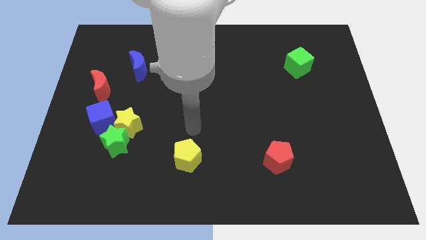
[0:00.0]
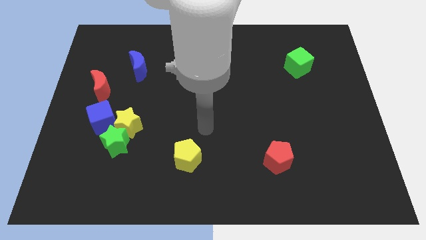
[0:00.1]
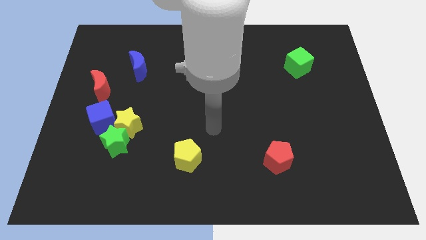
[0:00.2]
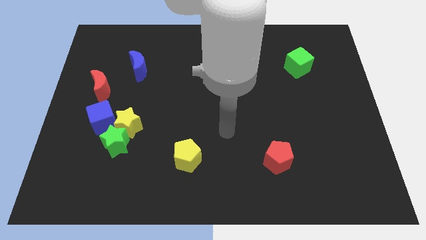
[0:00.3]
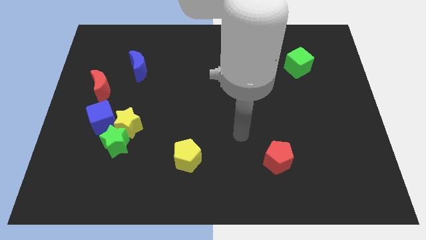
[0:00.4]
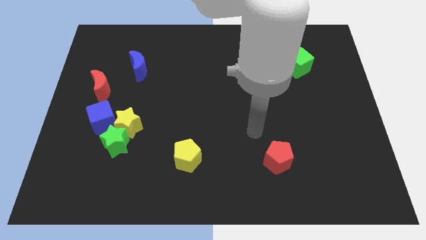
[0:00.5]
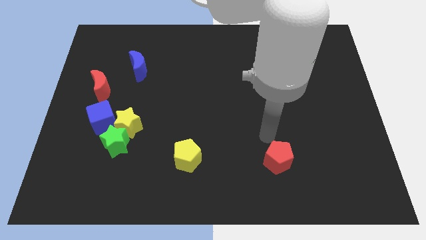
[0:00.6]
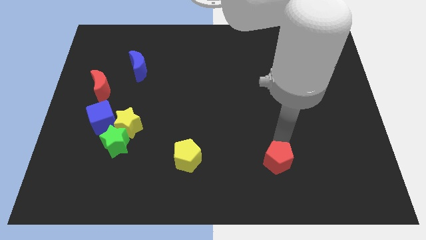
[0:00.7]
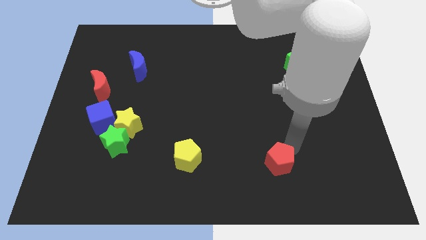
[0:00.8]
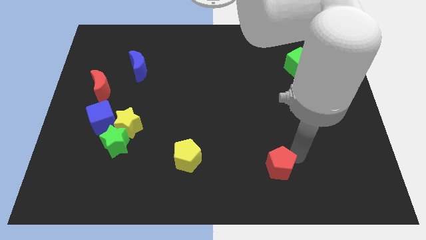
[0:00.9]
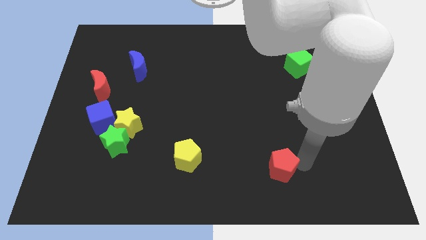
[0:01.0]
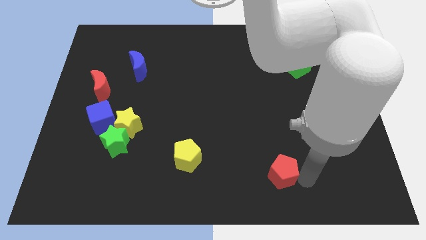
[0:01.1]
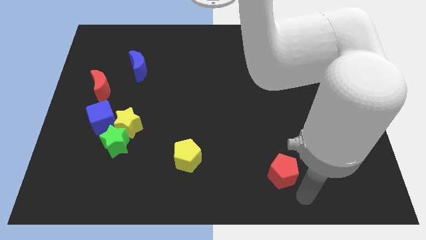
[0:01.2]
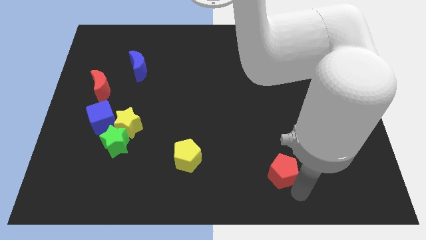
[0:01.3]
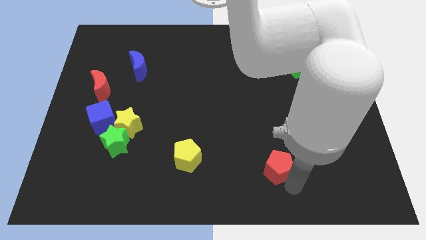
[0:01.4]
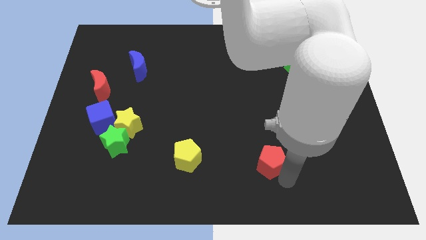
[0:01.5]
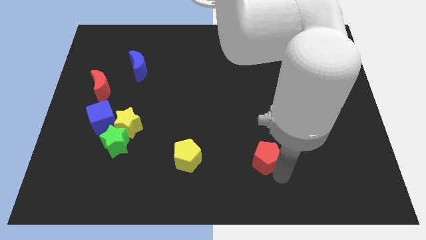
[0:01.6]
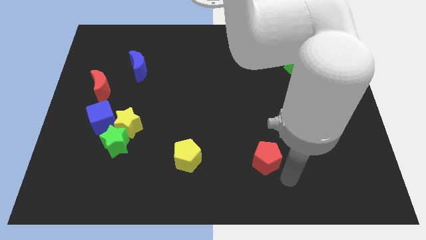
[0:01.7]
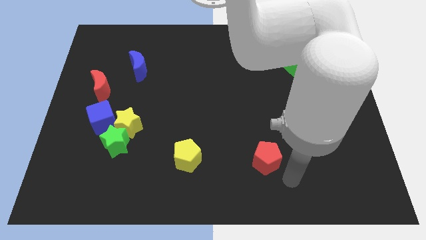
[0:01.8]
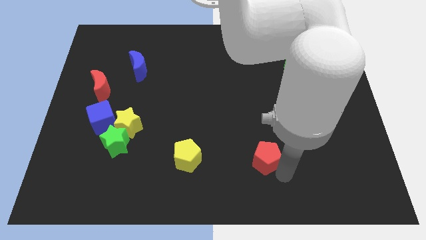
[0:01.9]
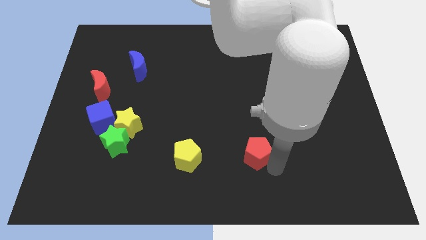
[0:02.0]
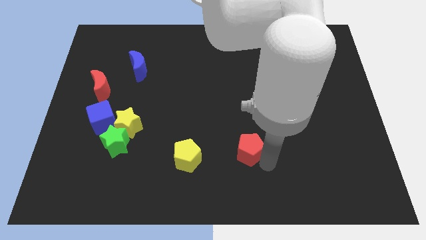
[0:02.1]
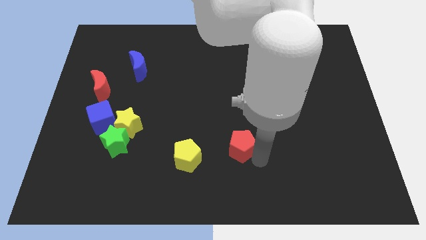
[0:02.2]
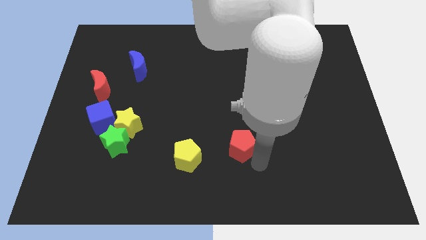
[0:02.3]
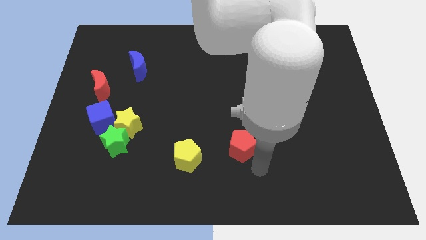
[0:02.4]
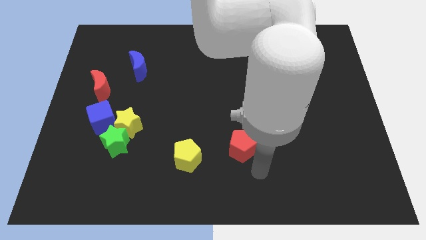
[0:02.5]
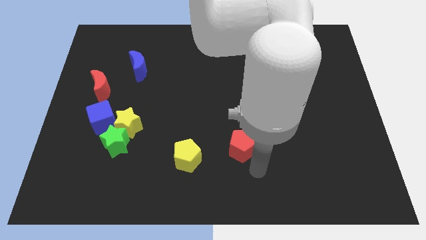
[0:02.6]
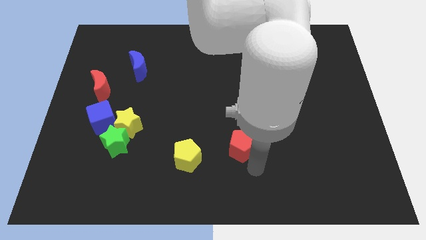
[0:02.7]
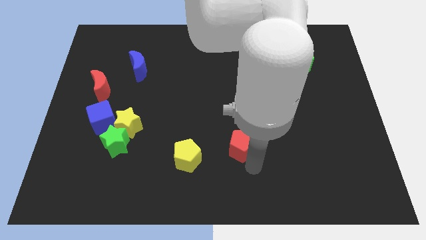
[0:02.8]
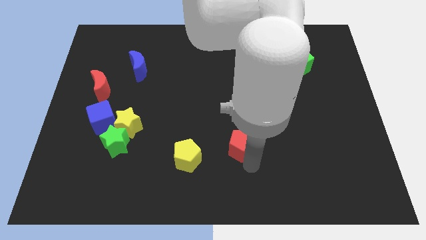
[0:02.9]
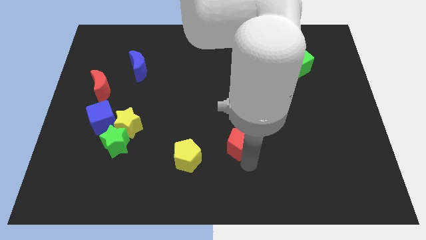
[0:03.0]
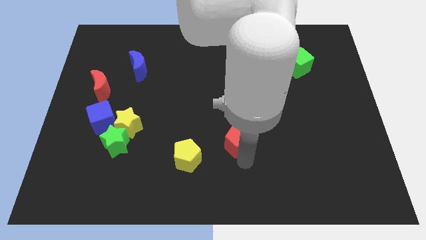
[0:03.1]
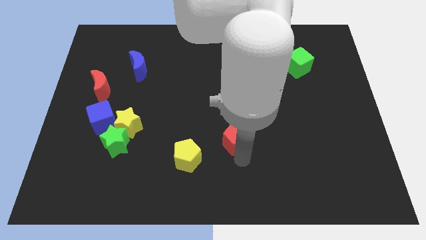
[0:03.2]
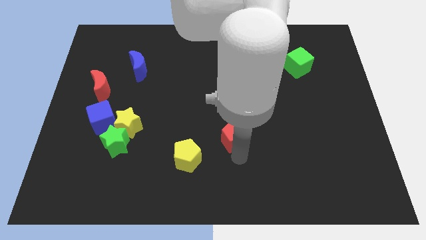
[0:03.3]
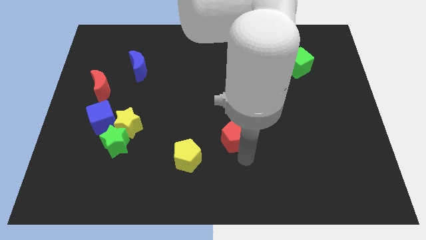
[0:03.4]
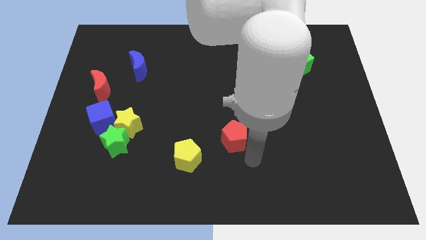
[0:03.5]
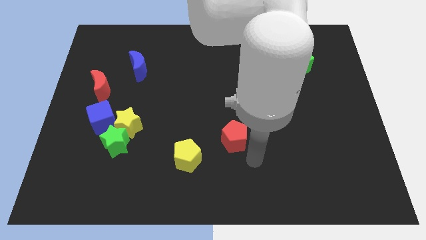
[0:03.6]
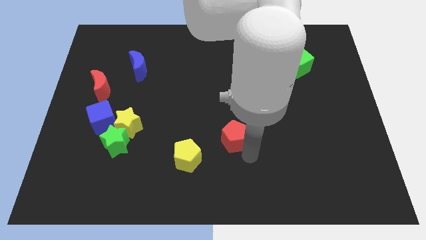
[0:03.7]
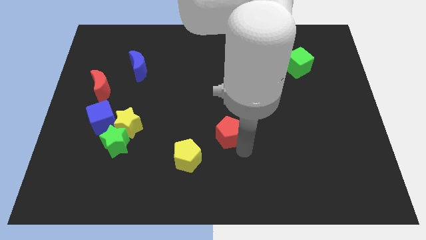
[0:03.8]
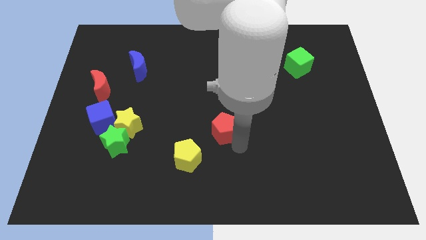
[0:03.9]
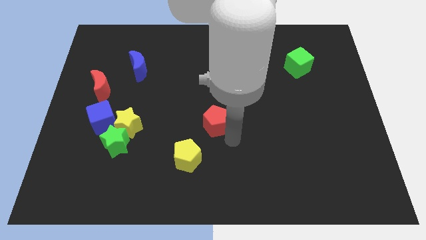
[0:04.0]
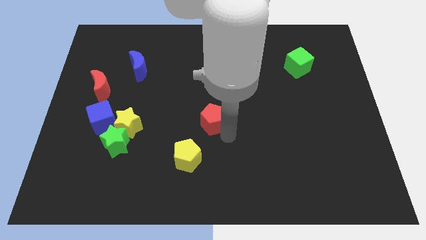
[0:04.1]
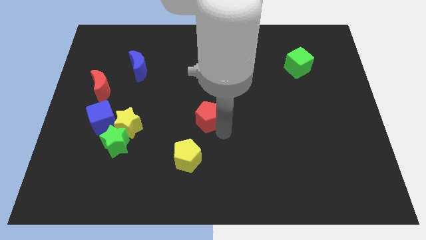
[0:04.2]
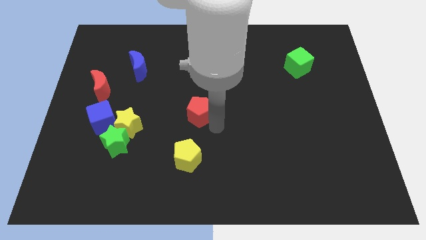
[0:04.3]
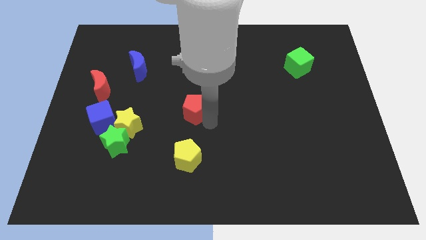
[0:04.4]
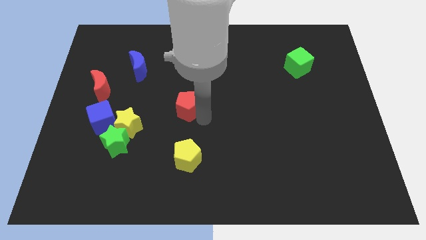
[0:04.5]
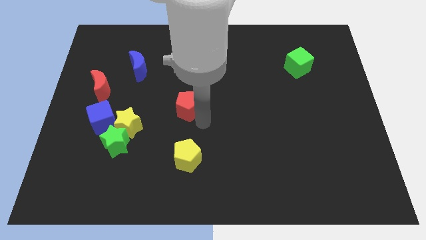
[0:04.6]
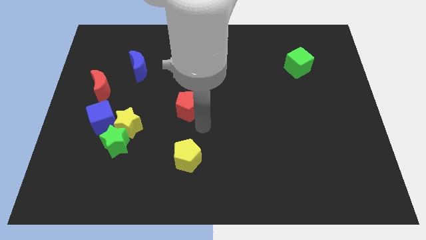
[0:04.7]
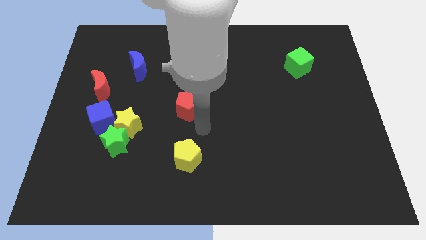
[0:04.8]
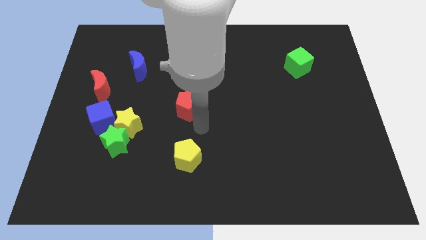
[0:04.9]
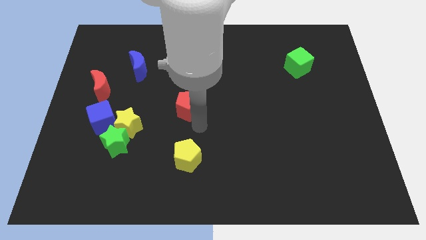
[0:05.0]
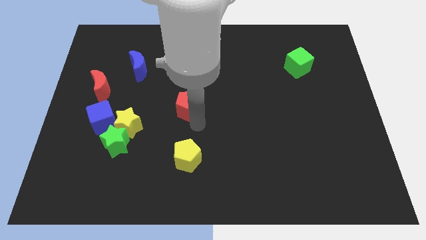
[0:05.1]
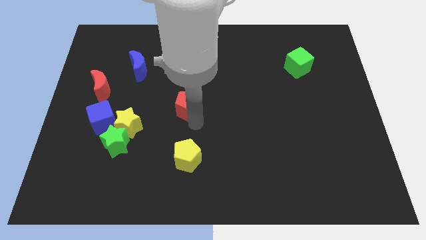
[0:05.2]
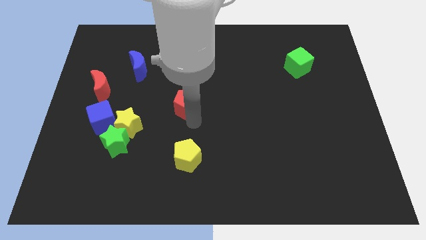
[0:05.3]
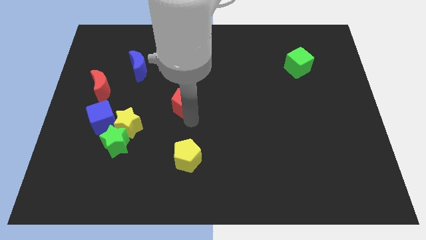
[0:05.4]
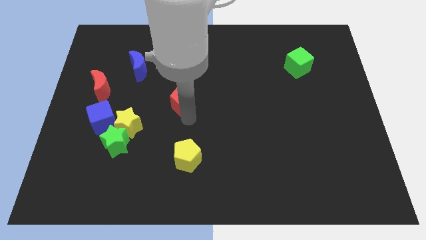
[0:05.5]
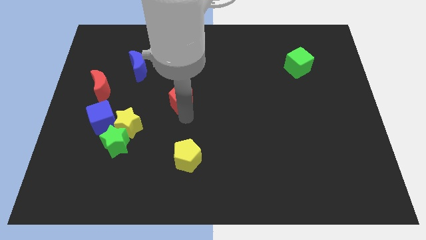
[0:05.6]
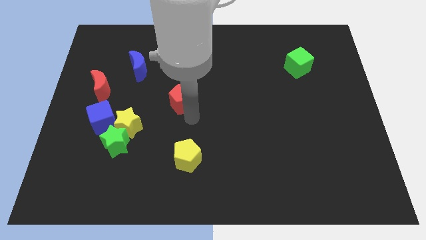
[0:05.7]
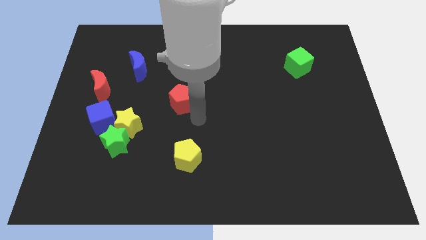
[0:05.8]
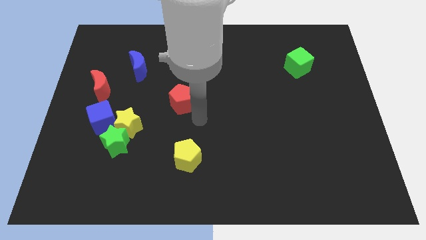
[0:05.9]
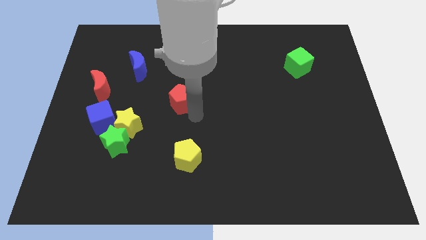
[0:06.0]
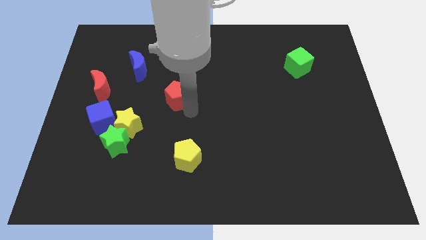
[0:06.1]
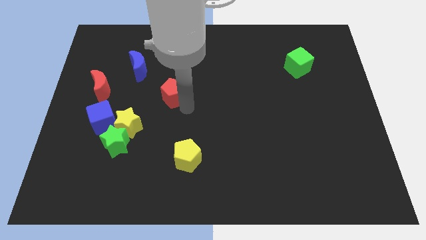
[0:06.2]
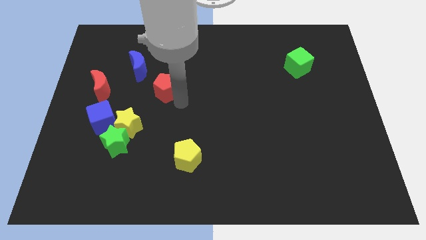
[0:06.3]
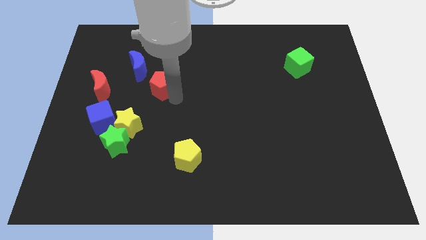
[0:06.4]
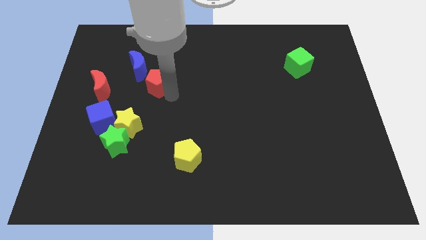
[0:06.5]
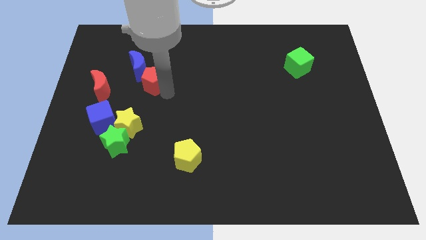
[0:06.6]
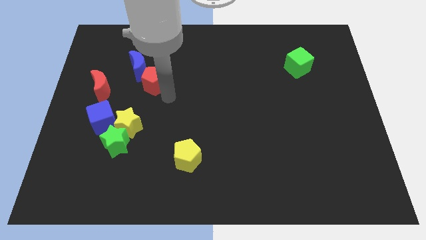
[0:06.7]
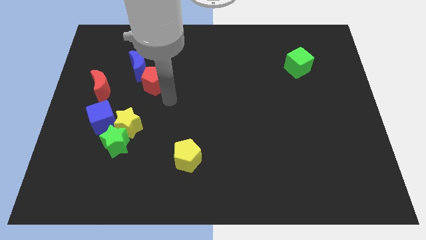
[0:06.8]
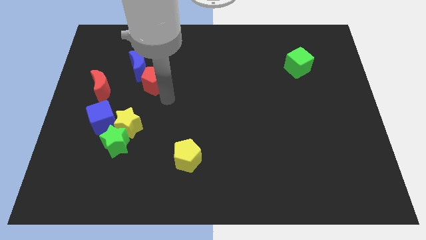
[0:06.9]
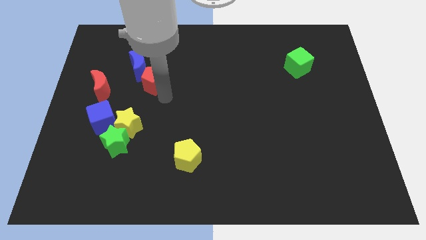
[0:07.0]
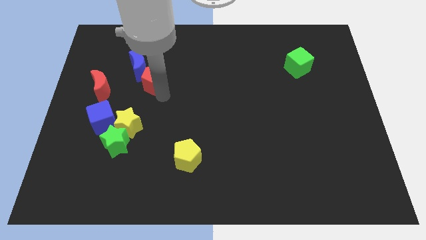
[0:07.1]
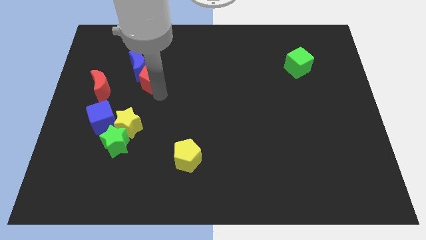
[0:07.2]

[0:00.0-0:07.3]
slide the red pentagon close to the blue moon

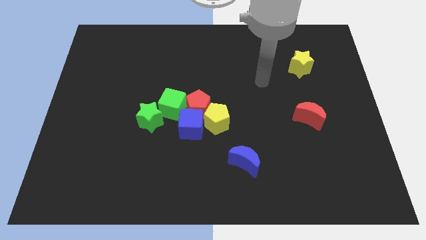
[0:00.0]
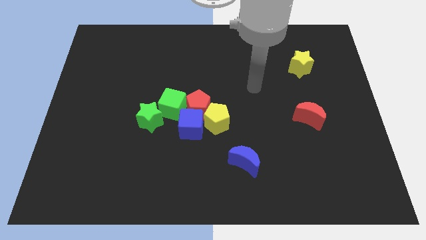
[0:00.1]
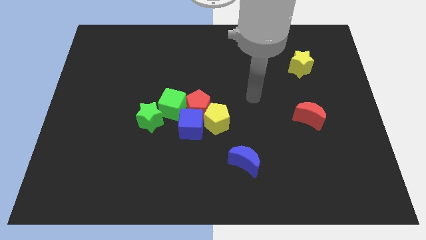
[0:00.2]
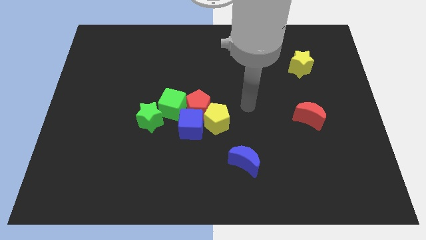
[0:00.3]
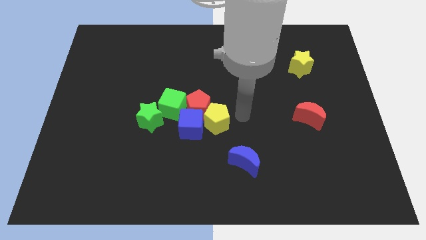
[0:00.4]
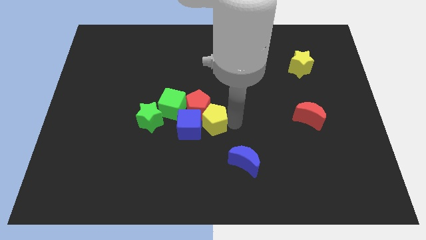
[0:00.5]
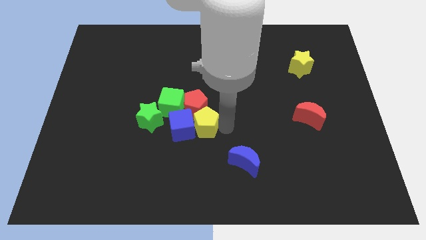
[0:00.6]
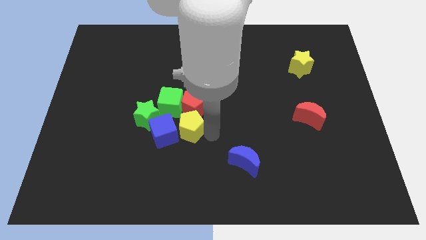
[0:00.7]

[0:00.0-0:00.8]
move the blue cube to the green star
